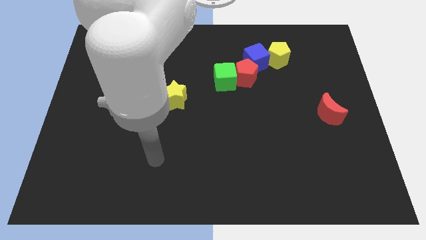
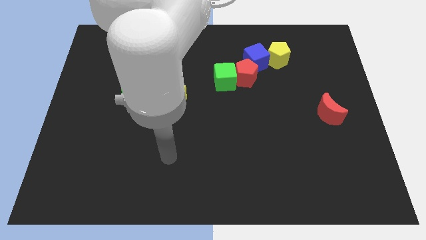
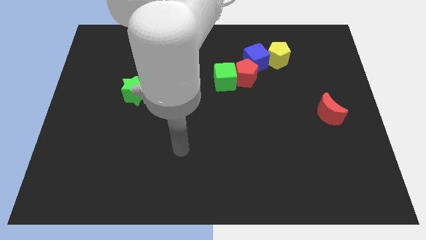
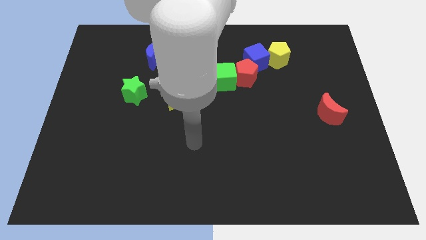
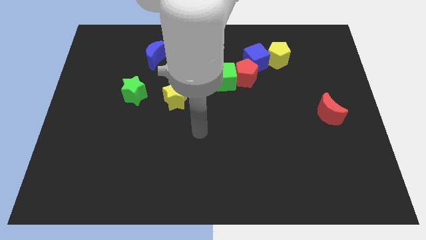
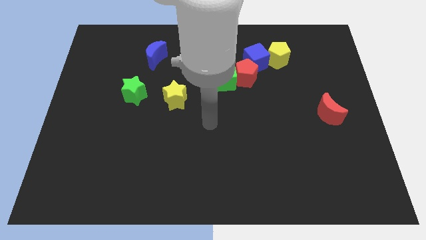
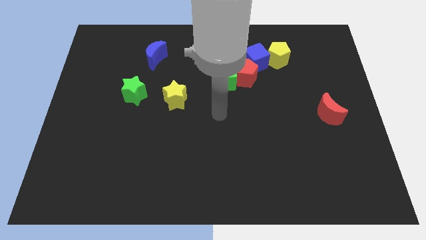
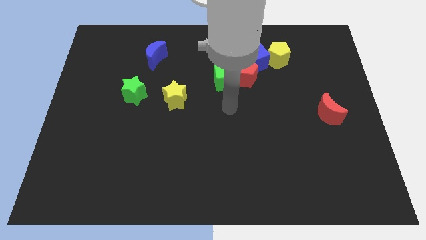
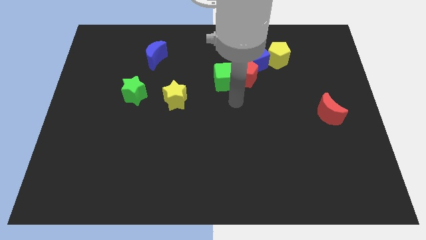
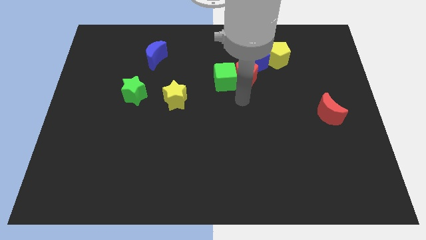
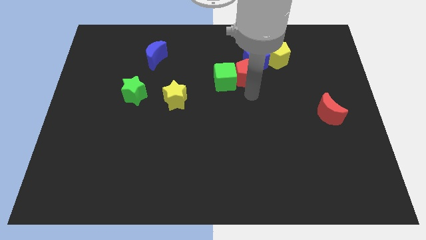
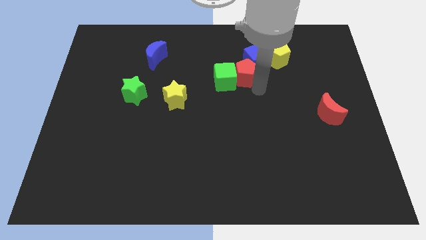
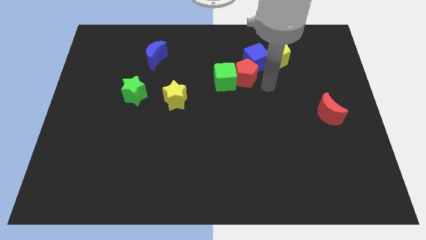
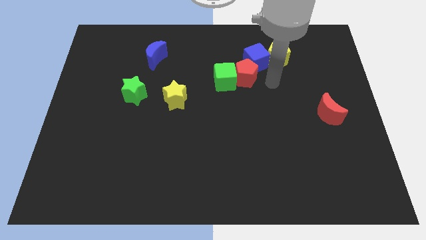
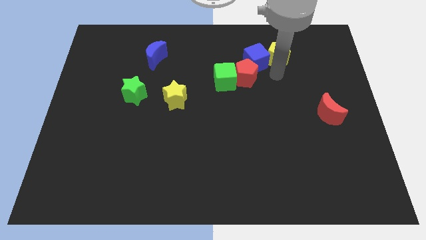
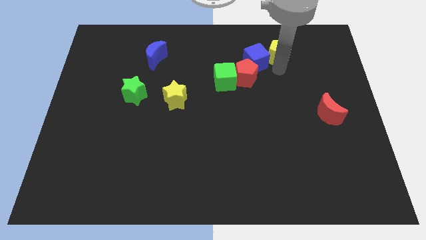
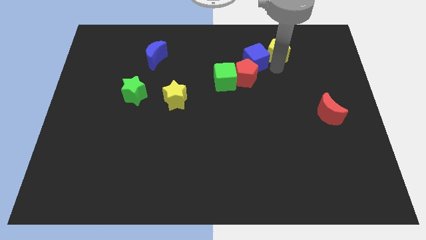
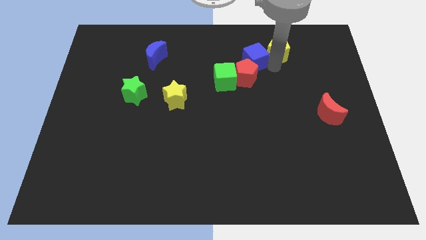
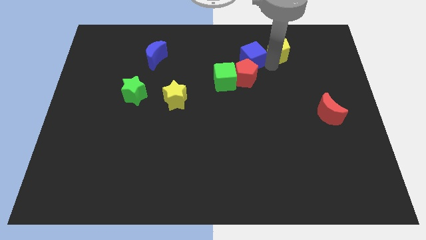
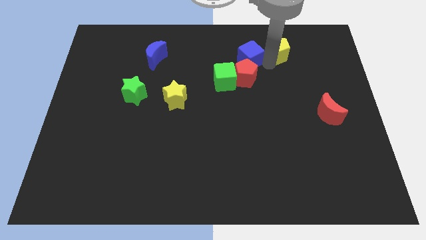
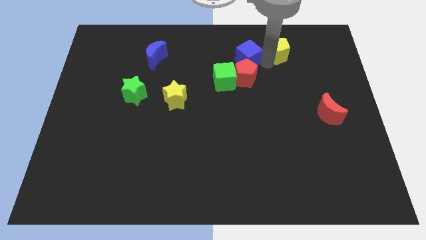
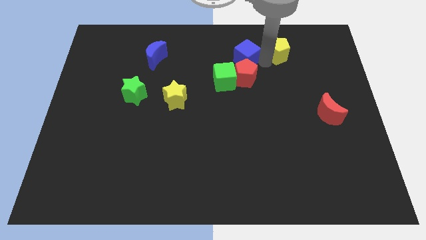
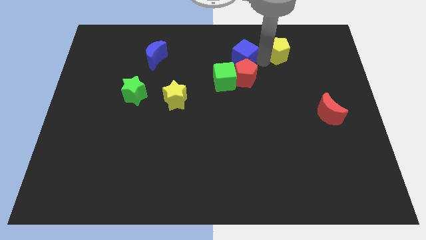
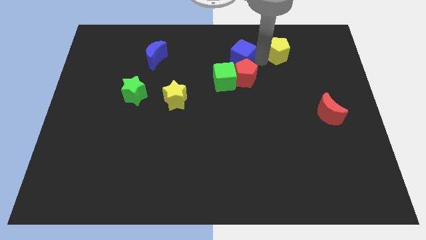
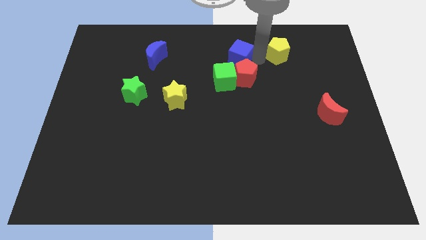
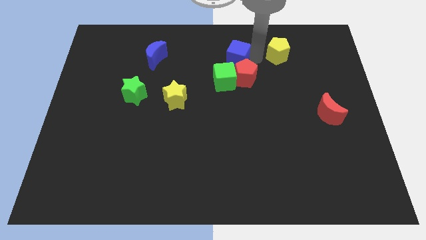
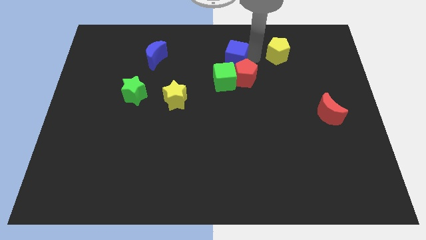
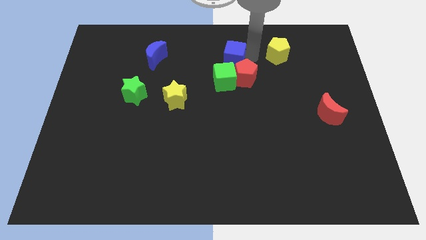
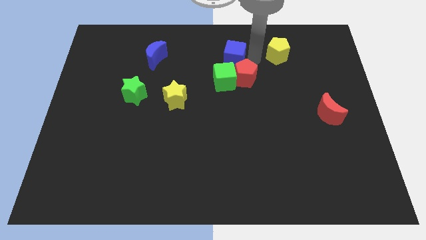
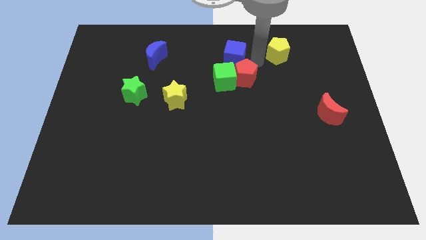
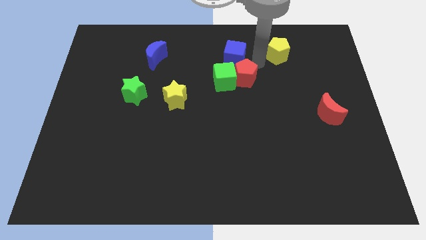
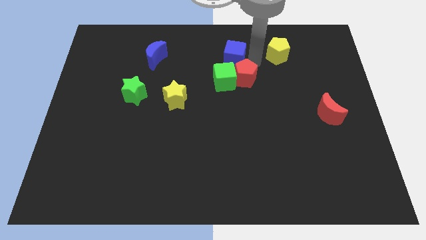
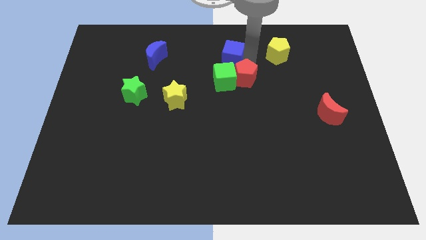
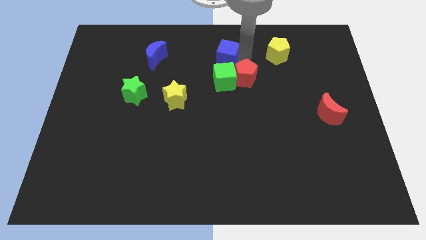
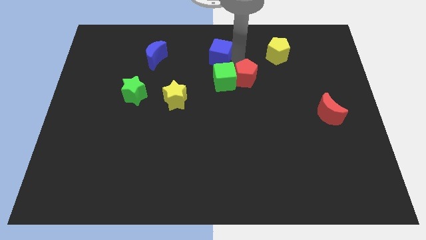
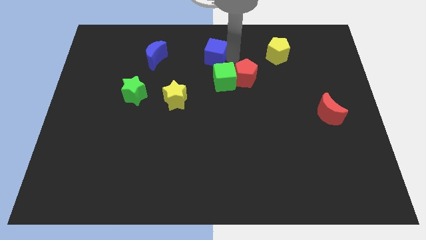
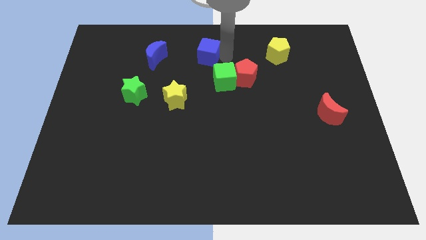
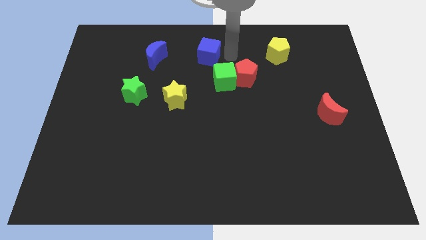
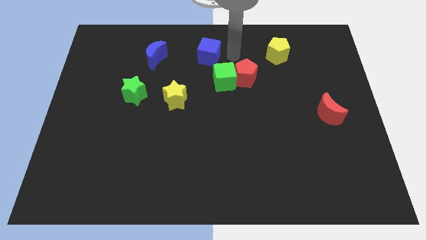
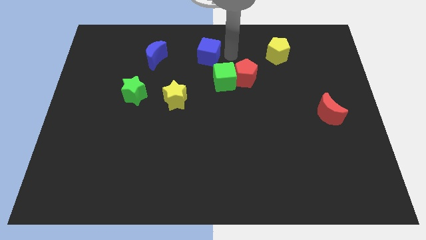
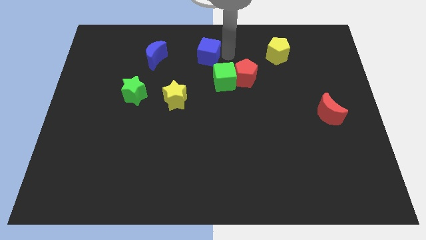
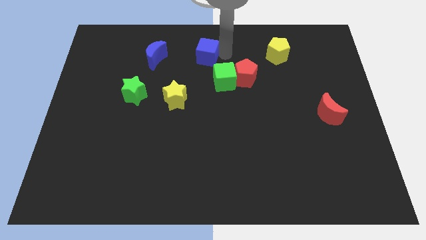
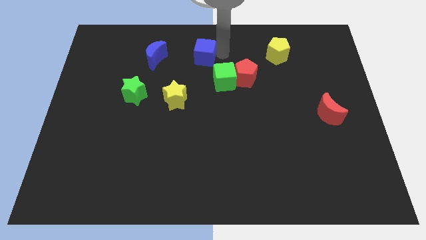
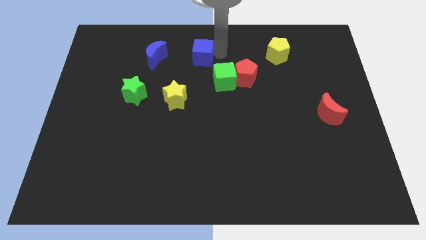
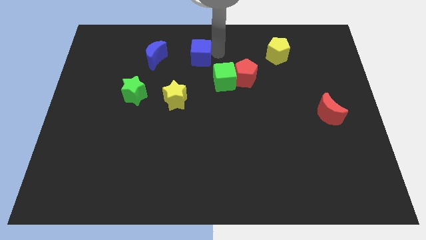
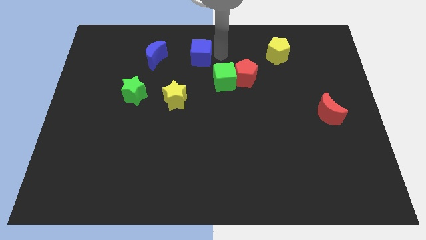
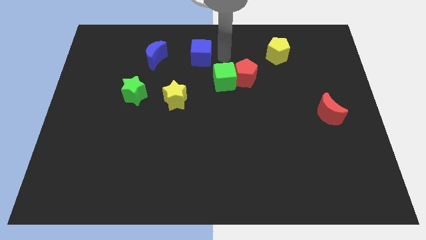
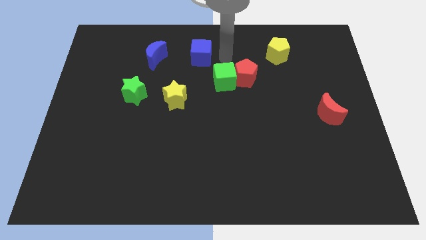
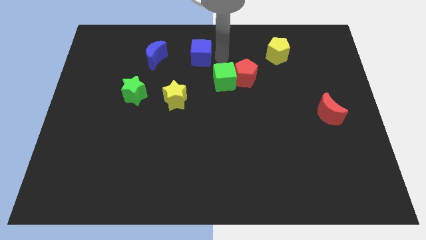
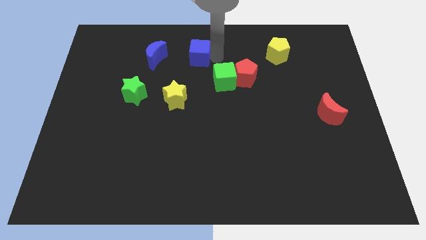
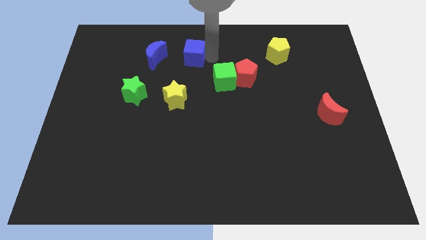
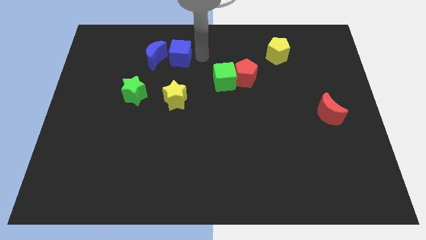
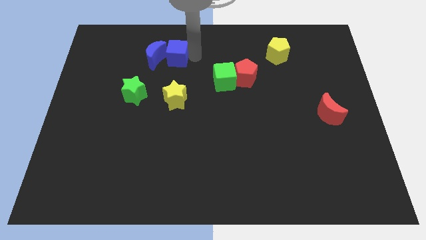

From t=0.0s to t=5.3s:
slide the blue cube close to the blue moon

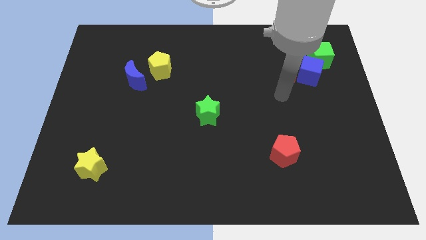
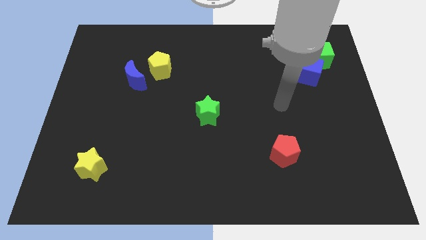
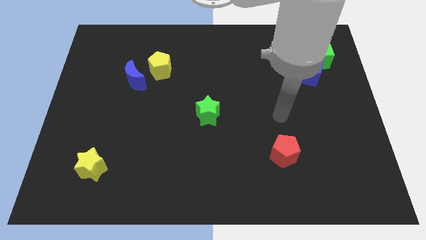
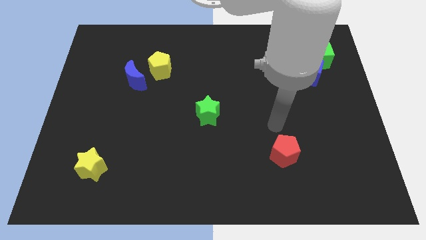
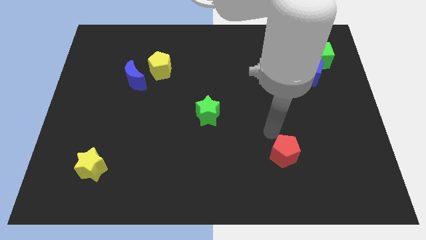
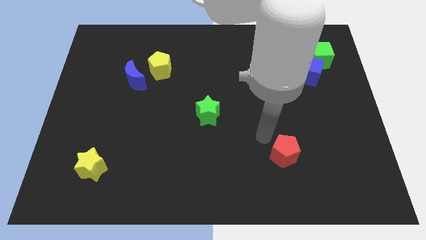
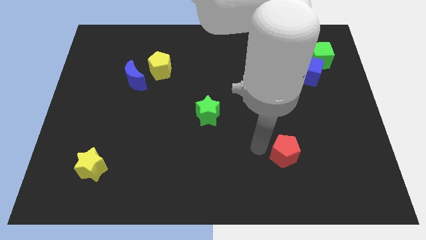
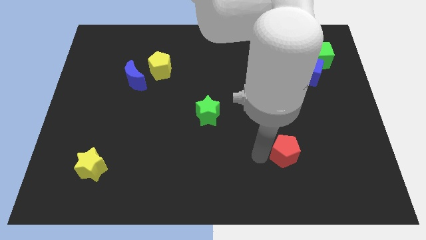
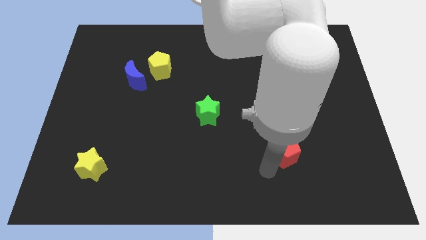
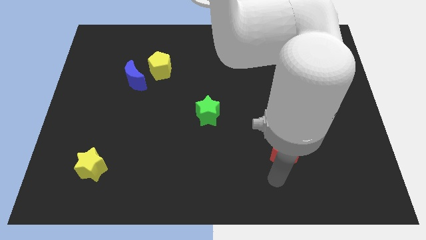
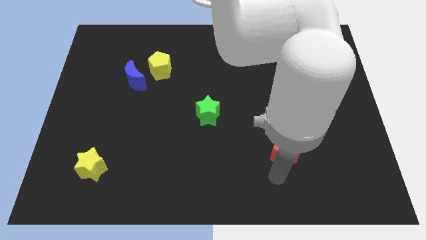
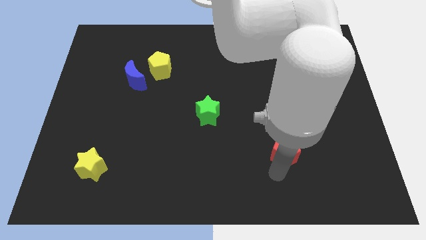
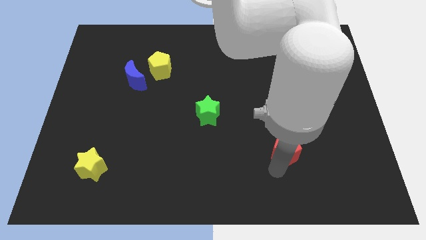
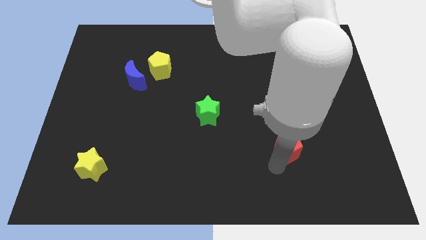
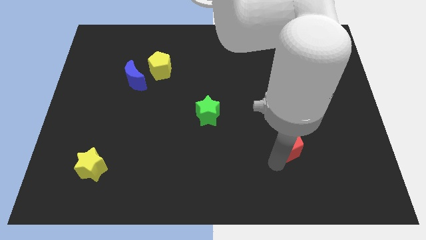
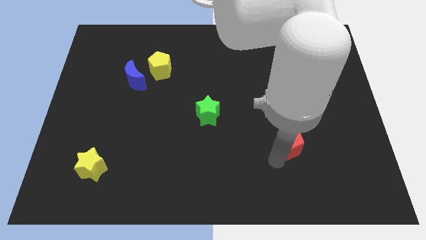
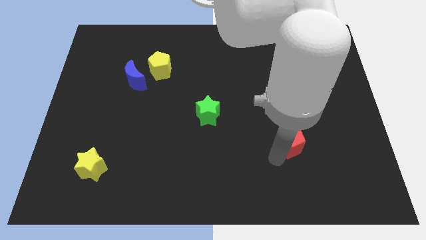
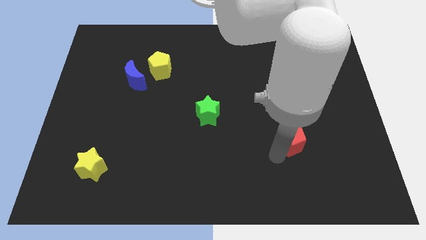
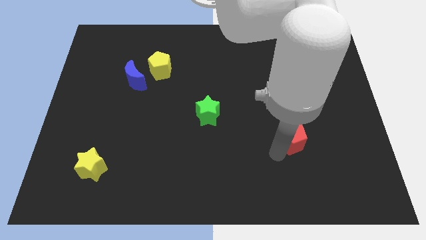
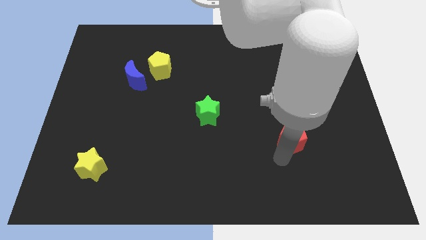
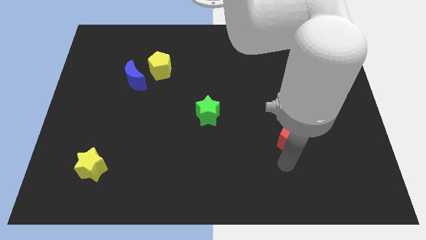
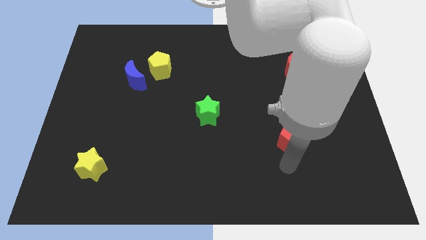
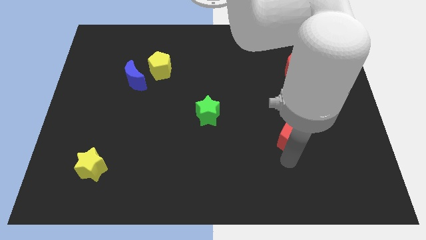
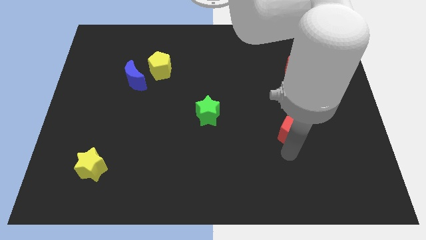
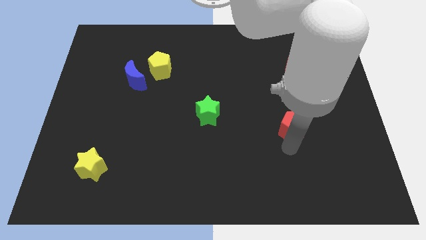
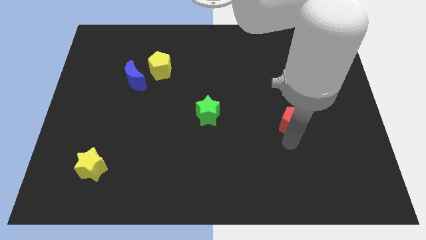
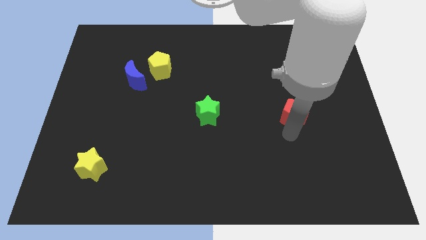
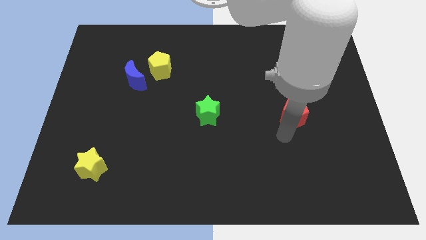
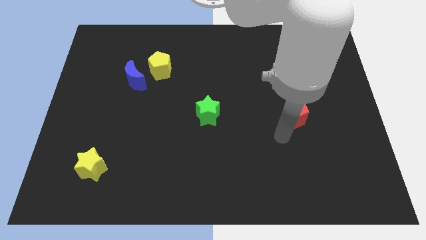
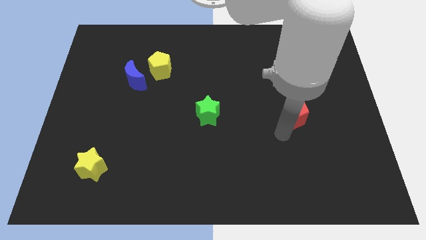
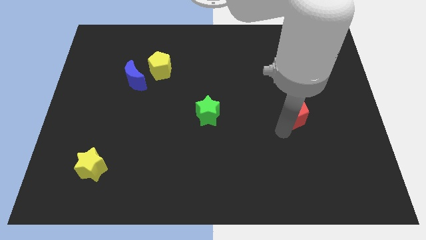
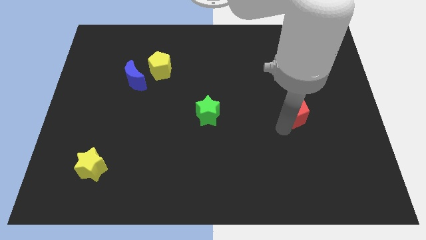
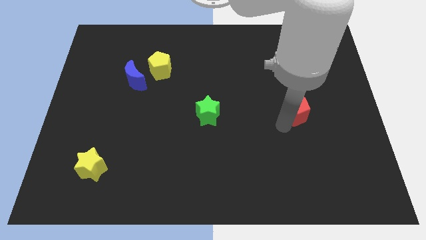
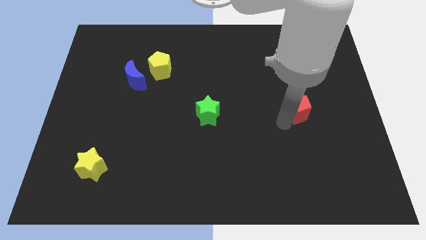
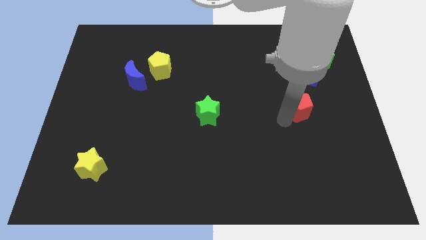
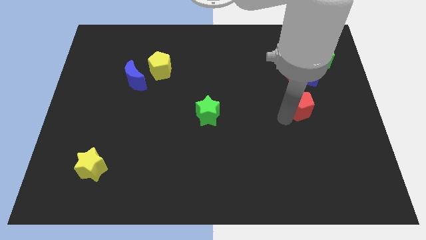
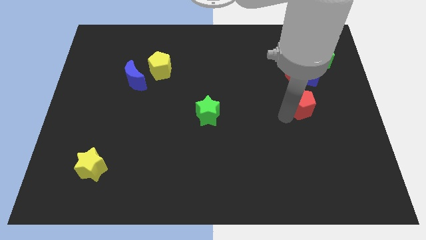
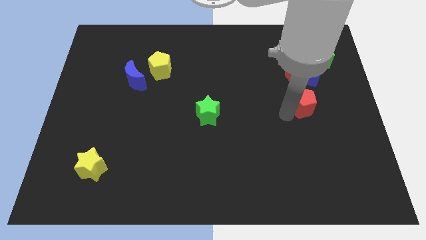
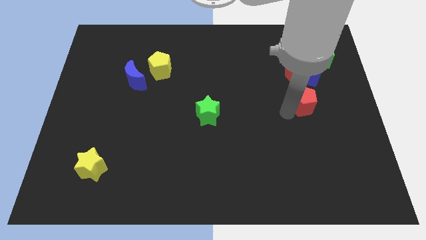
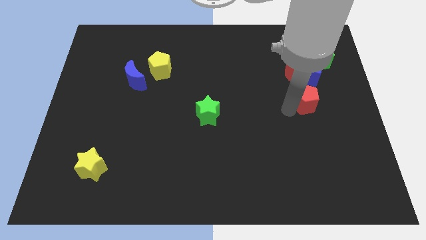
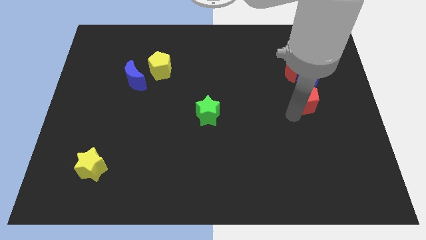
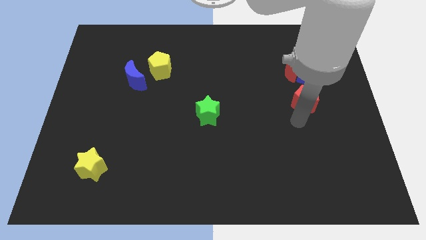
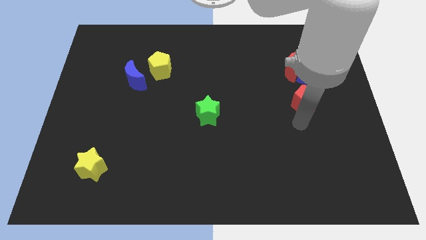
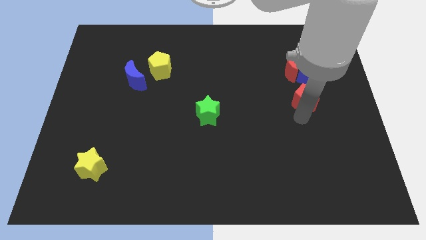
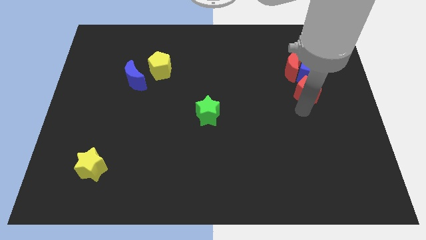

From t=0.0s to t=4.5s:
push the red pentagon close to the blue cube
